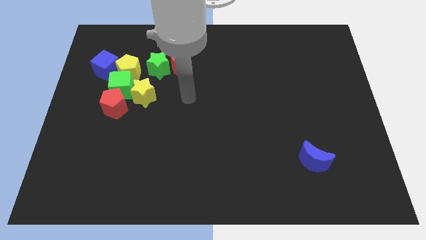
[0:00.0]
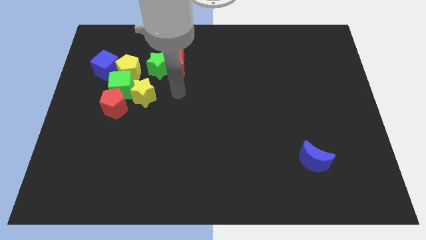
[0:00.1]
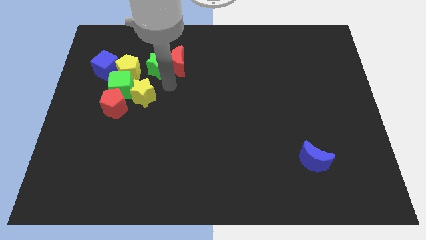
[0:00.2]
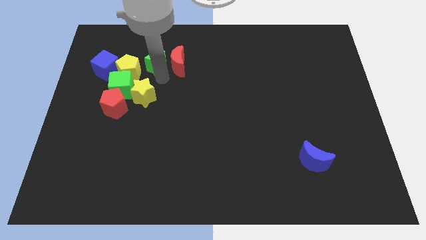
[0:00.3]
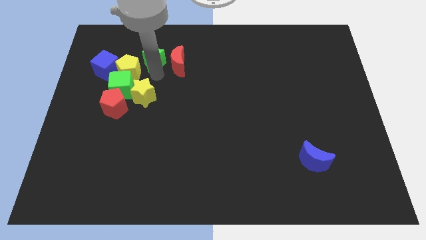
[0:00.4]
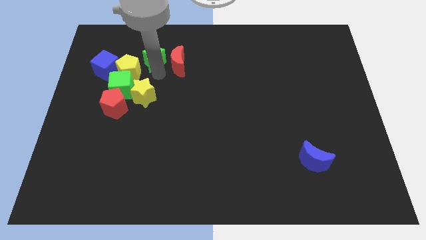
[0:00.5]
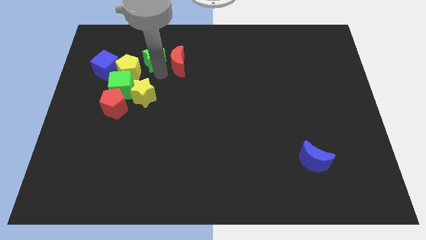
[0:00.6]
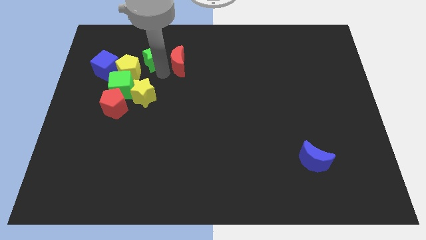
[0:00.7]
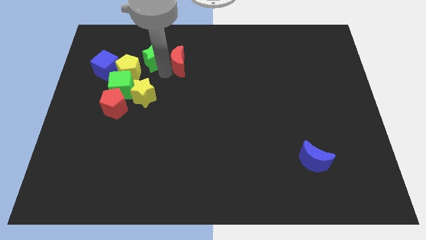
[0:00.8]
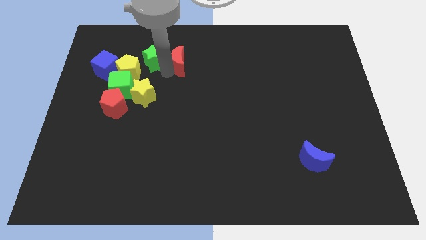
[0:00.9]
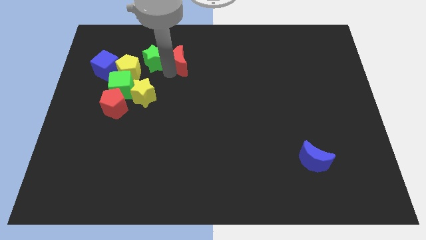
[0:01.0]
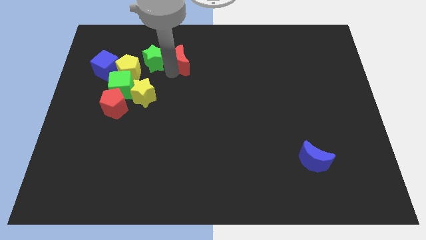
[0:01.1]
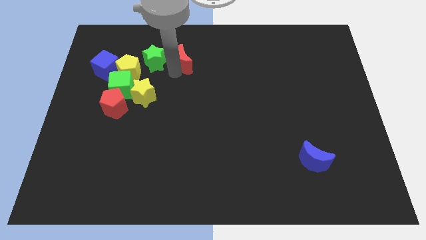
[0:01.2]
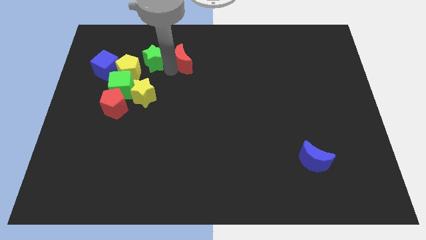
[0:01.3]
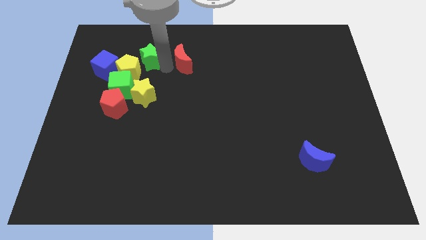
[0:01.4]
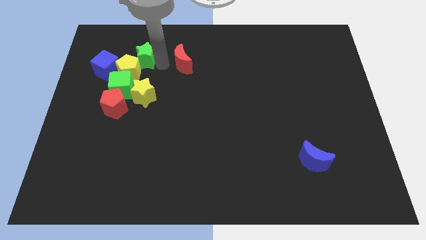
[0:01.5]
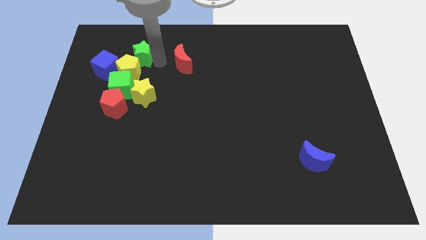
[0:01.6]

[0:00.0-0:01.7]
pull the red moon apart from the green star

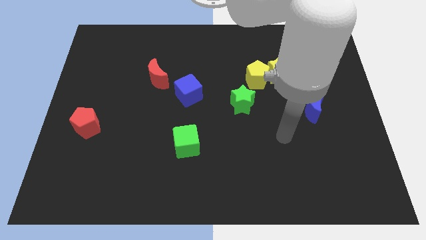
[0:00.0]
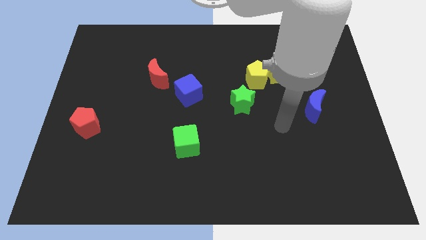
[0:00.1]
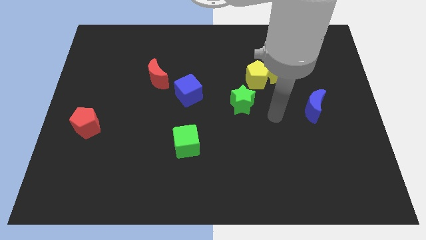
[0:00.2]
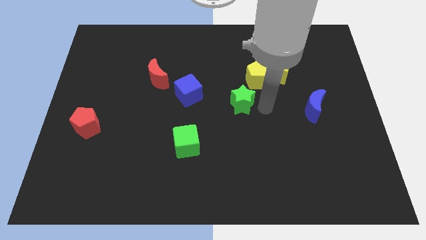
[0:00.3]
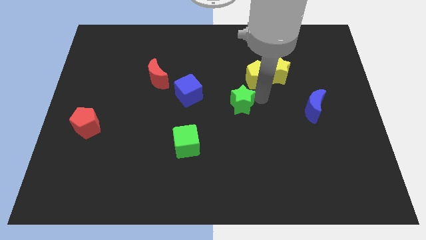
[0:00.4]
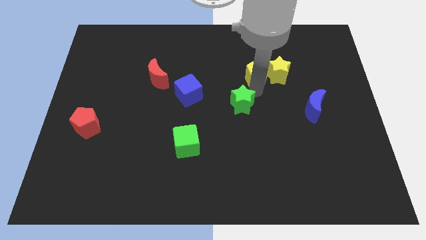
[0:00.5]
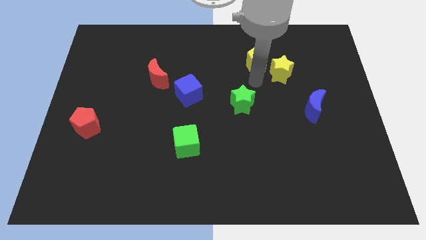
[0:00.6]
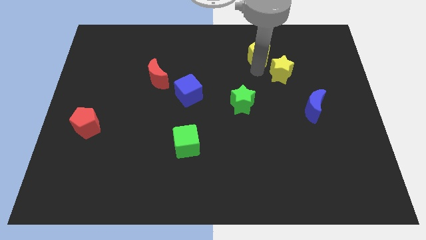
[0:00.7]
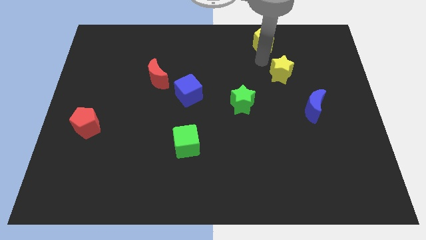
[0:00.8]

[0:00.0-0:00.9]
separate the yellow star from the yellow pentagon

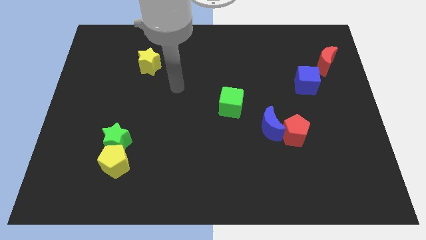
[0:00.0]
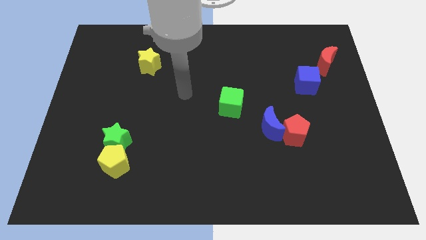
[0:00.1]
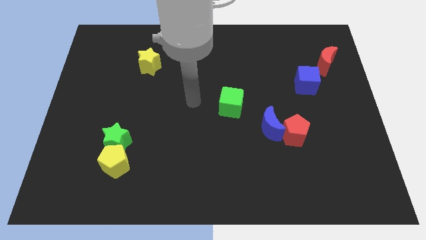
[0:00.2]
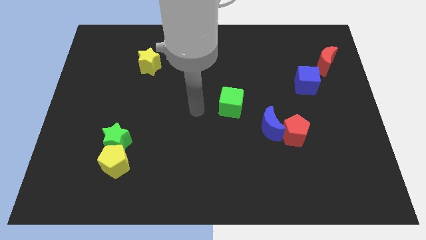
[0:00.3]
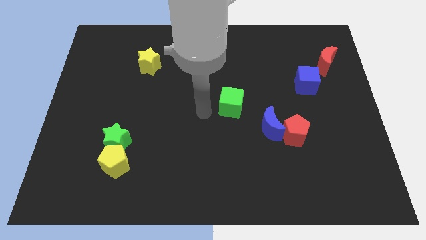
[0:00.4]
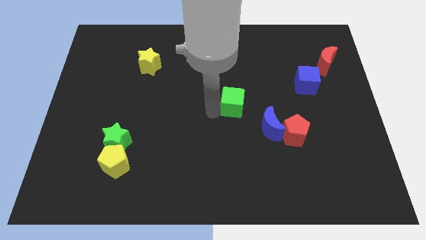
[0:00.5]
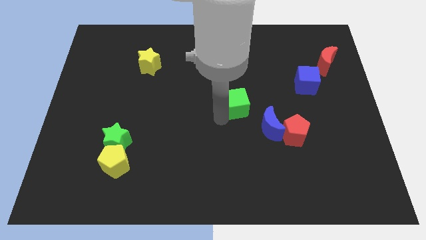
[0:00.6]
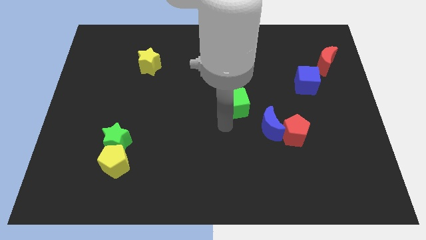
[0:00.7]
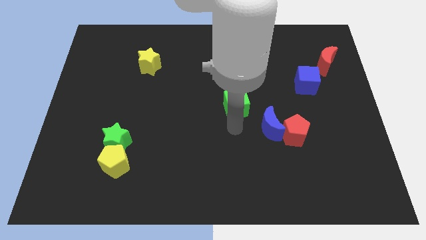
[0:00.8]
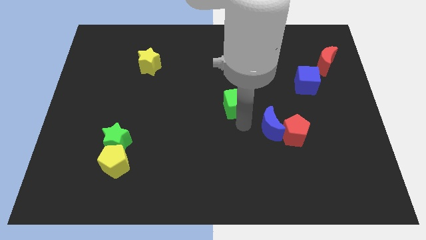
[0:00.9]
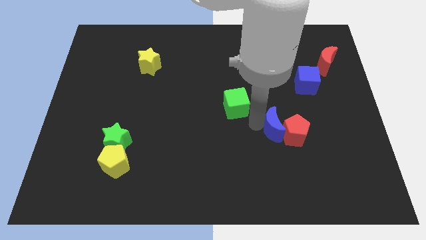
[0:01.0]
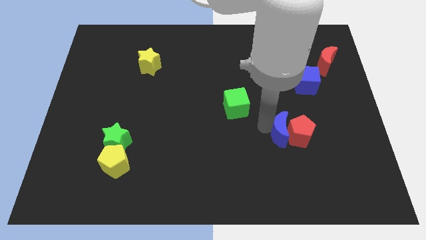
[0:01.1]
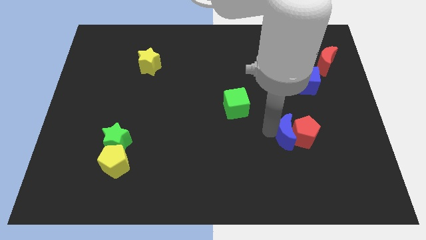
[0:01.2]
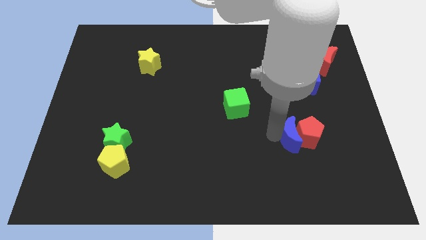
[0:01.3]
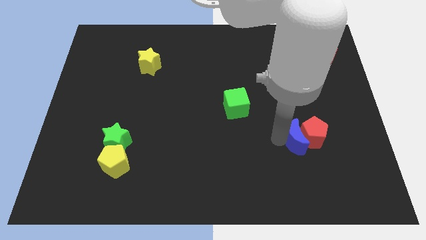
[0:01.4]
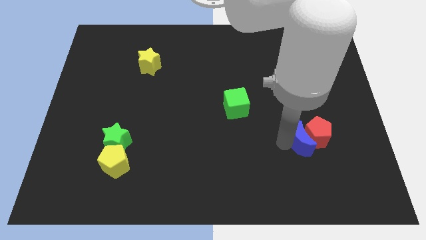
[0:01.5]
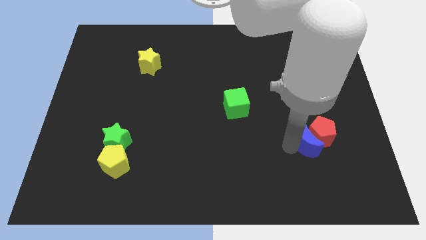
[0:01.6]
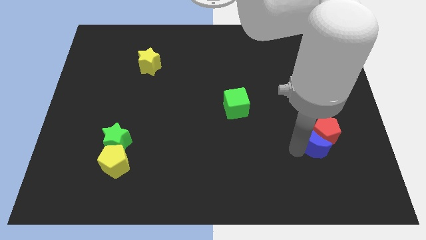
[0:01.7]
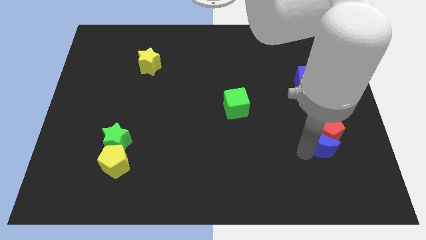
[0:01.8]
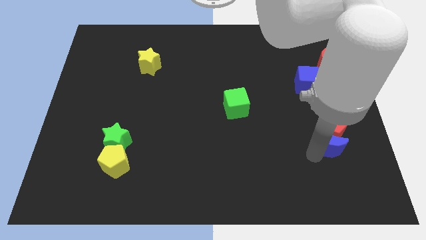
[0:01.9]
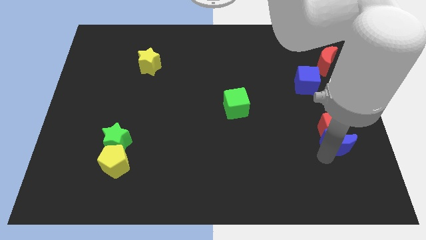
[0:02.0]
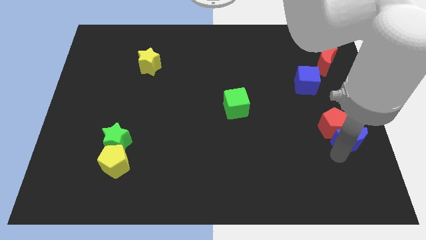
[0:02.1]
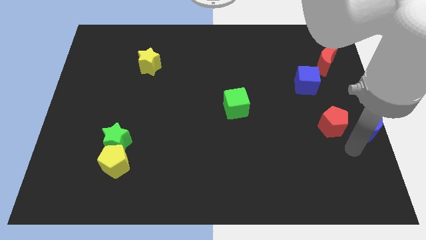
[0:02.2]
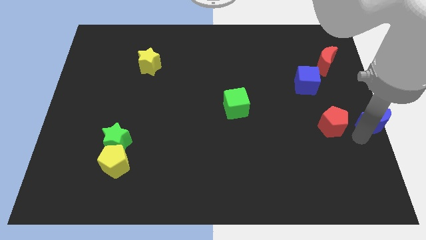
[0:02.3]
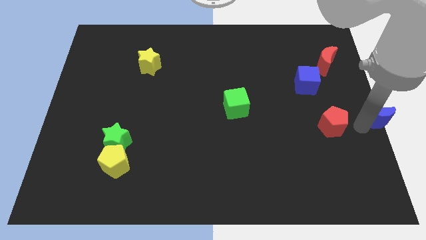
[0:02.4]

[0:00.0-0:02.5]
pull the red pentagon apart from the blue moon

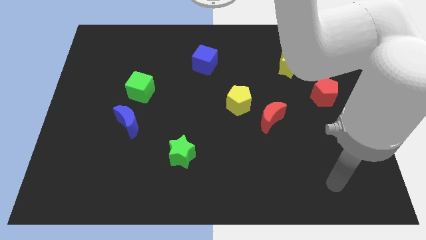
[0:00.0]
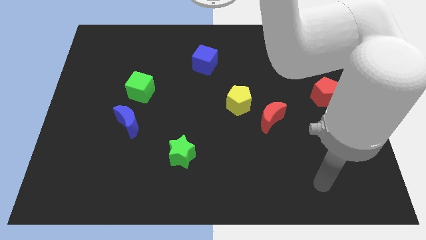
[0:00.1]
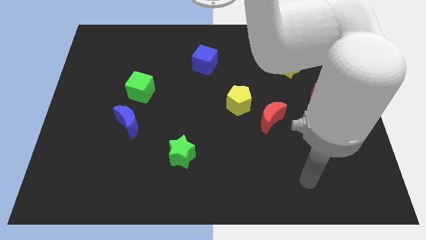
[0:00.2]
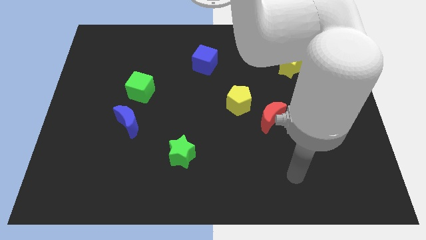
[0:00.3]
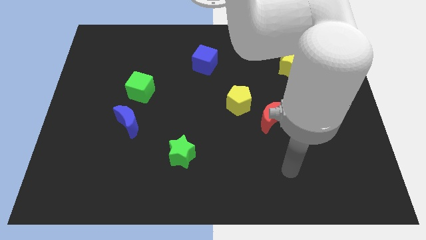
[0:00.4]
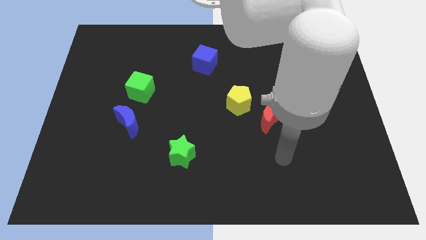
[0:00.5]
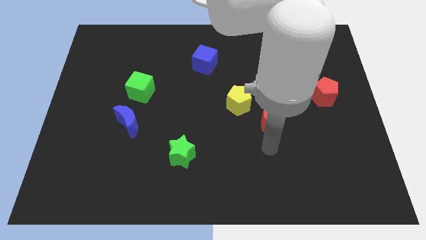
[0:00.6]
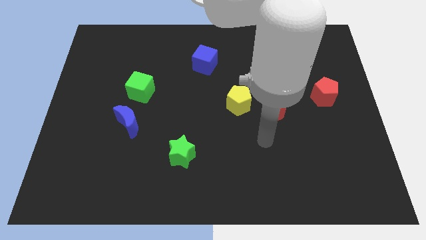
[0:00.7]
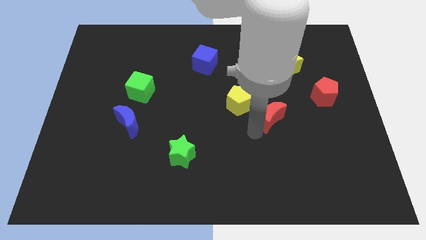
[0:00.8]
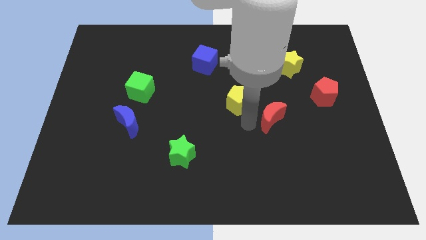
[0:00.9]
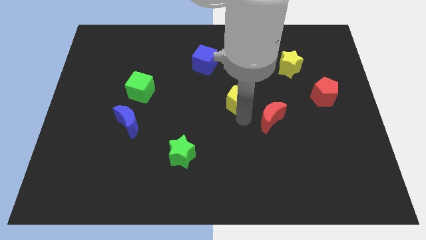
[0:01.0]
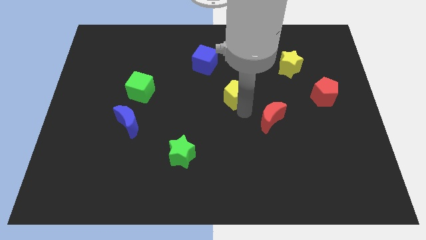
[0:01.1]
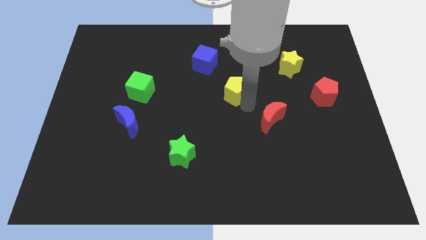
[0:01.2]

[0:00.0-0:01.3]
separate the red moon from the yellow pentagon

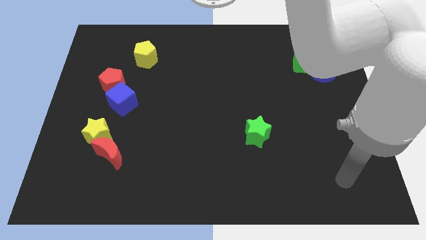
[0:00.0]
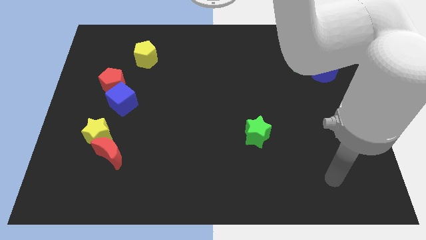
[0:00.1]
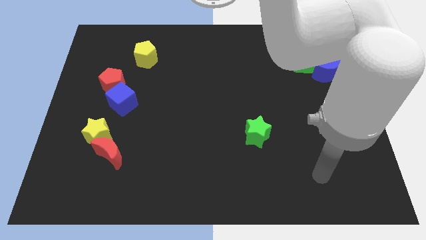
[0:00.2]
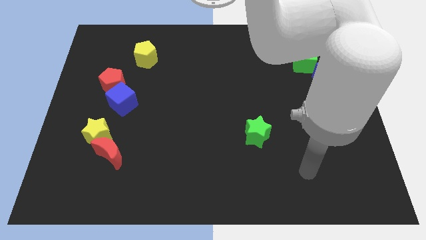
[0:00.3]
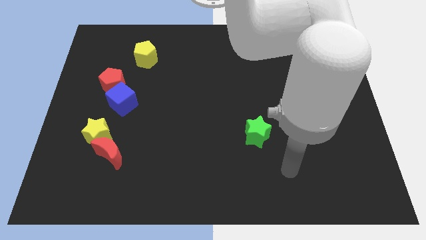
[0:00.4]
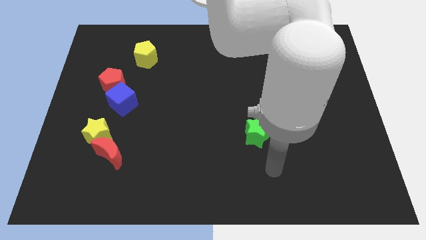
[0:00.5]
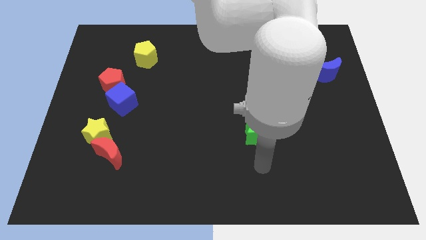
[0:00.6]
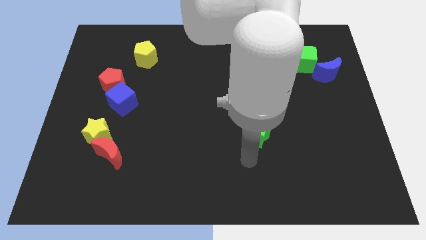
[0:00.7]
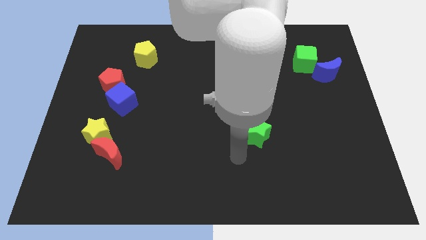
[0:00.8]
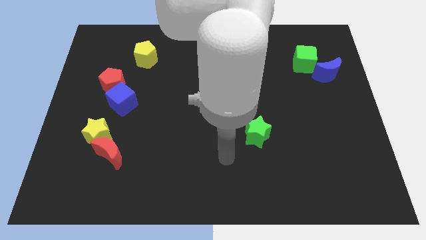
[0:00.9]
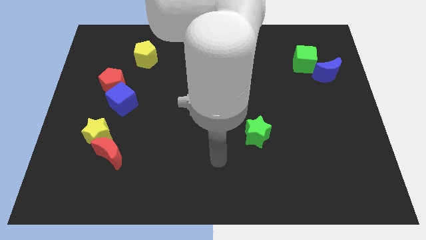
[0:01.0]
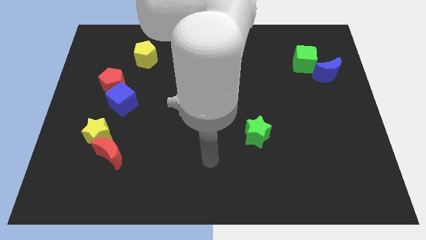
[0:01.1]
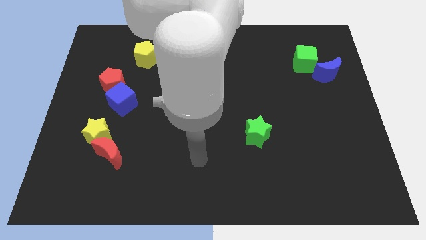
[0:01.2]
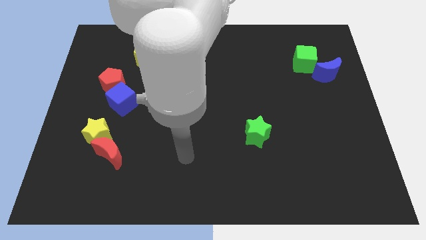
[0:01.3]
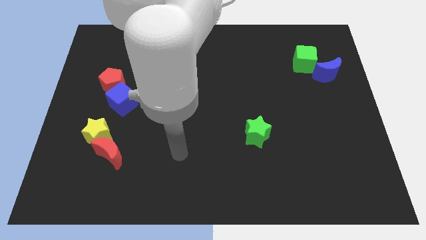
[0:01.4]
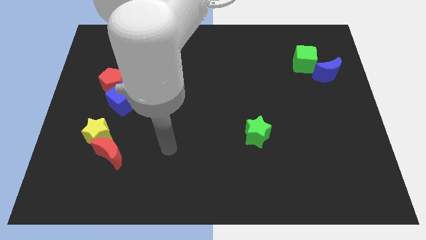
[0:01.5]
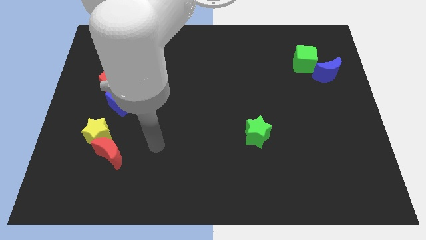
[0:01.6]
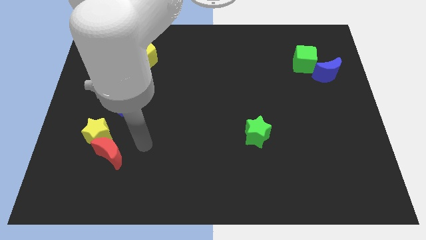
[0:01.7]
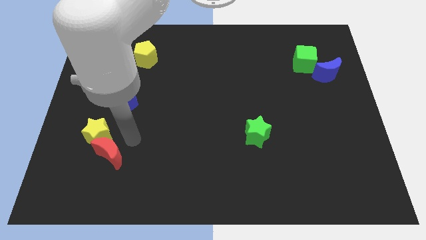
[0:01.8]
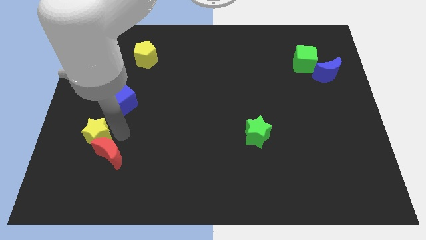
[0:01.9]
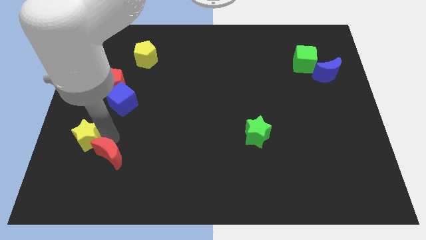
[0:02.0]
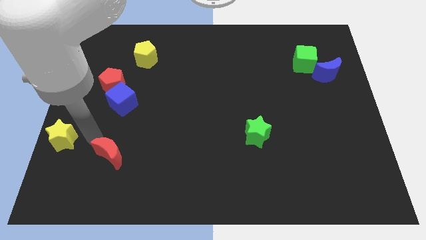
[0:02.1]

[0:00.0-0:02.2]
separate the red moon from the yellow star

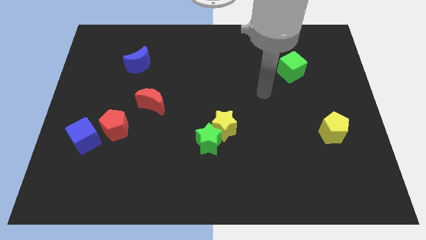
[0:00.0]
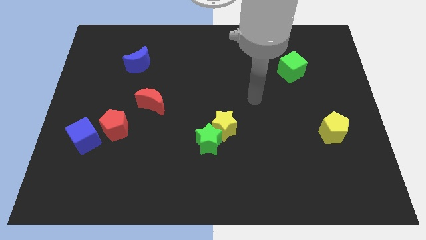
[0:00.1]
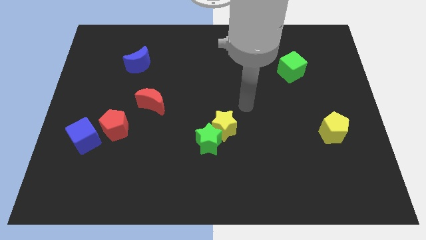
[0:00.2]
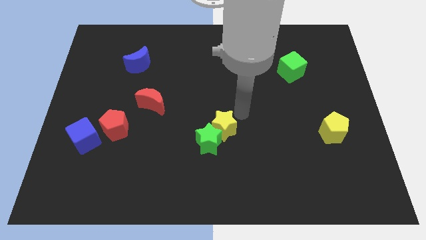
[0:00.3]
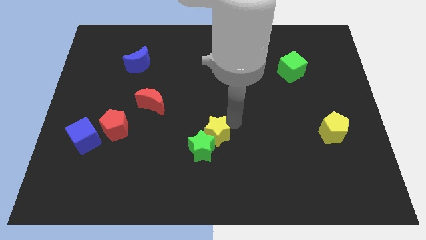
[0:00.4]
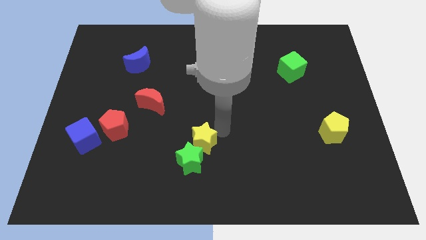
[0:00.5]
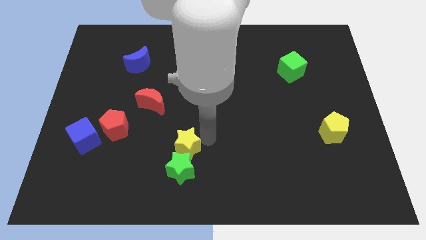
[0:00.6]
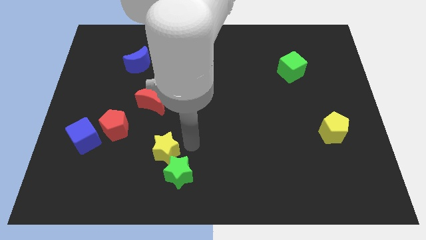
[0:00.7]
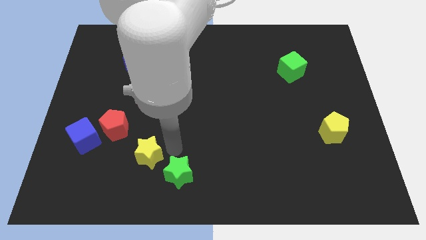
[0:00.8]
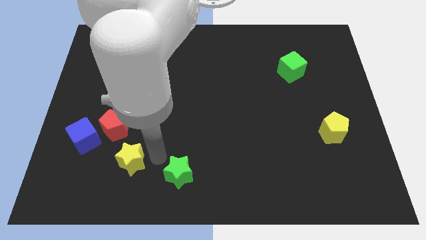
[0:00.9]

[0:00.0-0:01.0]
pull the green star apart from the yellow star
